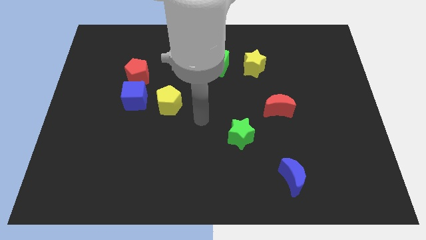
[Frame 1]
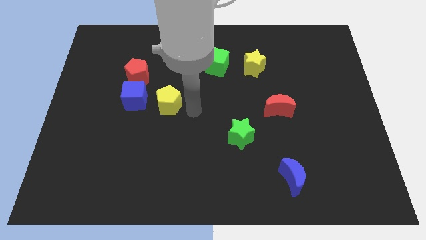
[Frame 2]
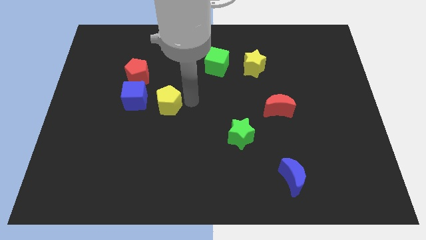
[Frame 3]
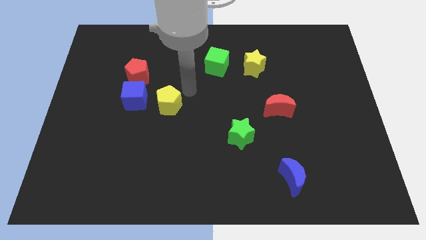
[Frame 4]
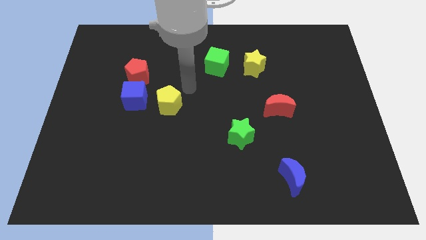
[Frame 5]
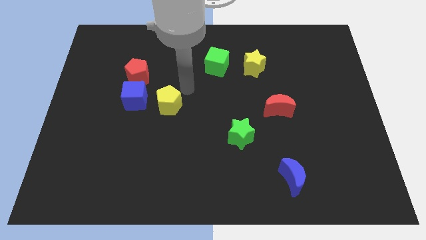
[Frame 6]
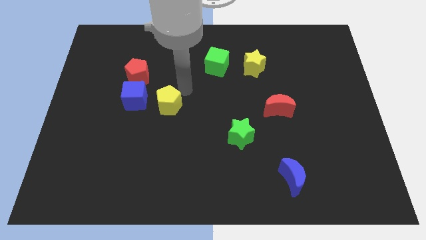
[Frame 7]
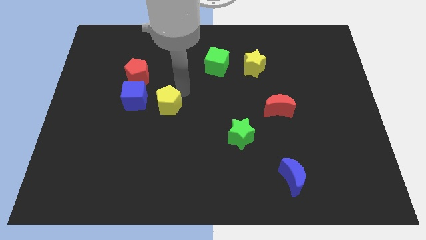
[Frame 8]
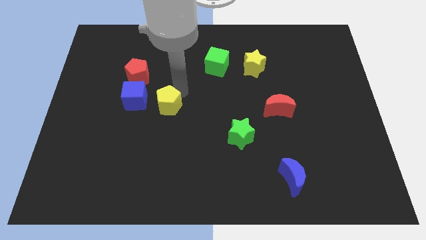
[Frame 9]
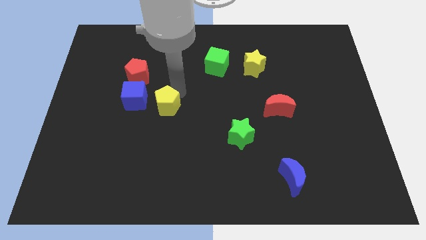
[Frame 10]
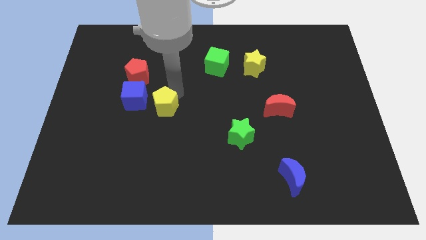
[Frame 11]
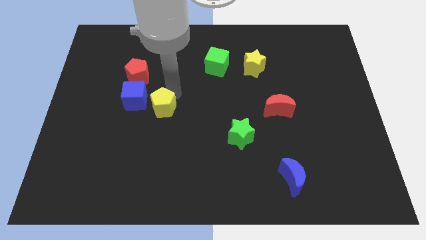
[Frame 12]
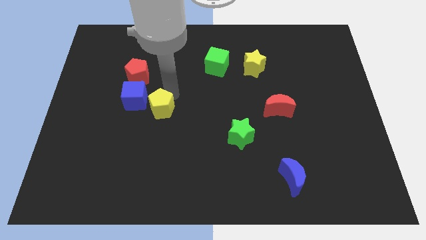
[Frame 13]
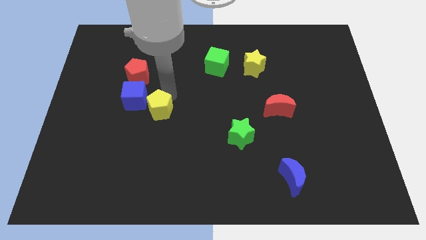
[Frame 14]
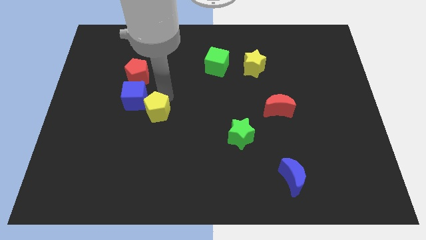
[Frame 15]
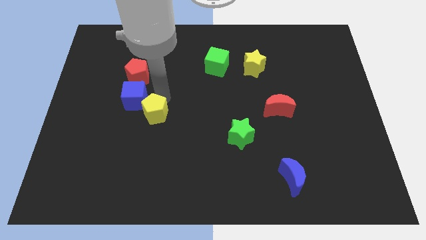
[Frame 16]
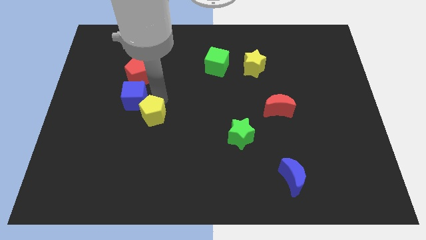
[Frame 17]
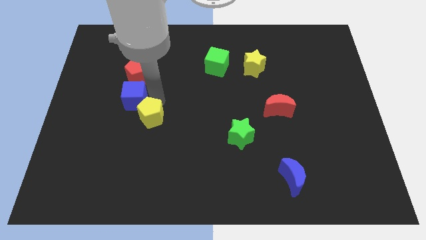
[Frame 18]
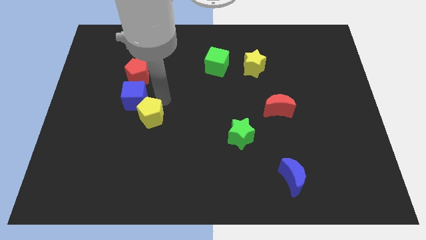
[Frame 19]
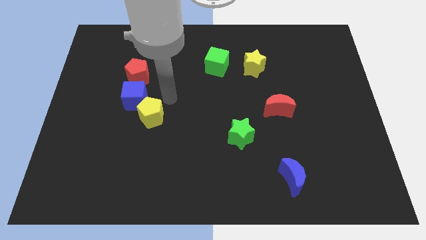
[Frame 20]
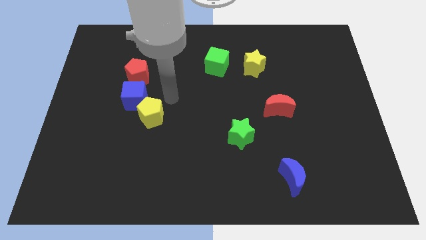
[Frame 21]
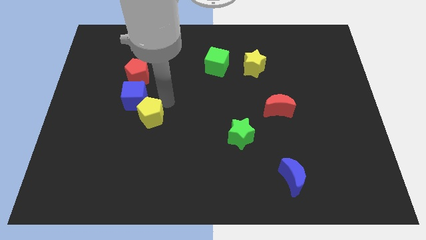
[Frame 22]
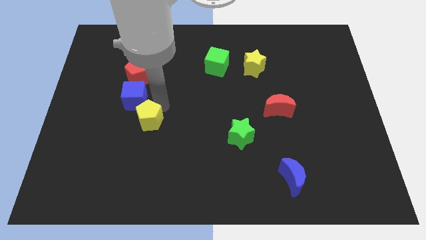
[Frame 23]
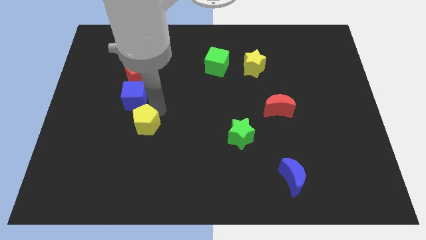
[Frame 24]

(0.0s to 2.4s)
slide the yellow pentagon downwards and then to the left somewhat

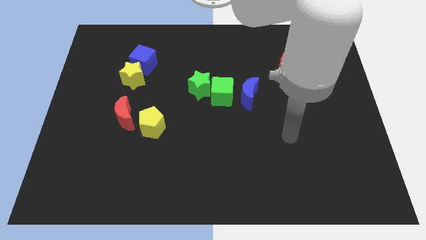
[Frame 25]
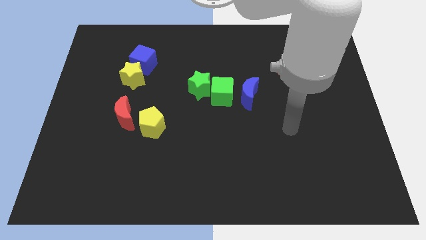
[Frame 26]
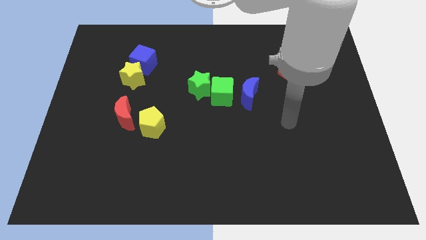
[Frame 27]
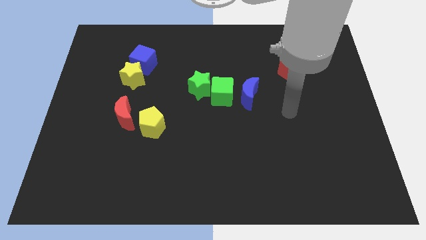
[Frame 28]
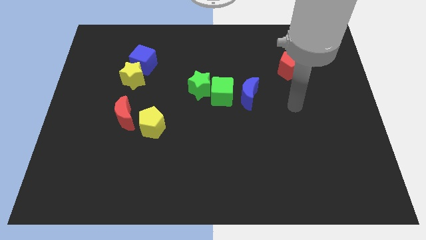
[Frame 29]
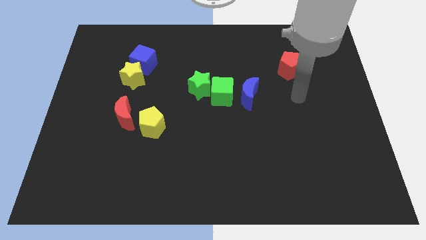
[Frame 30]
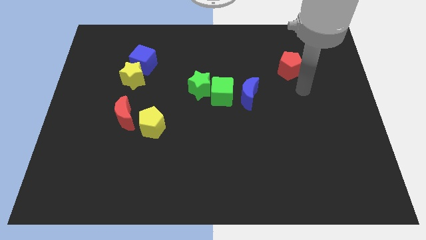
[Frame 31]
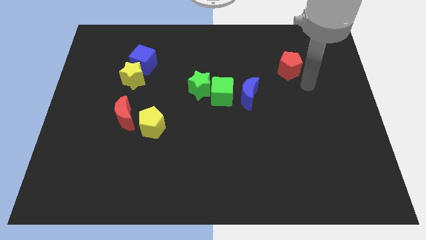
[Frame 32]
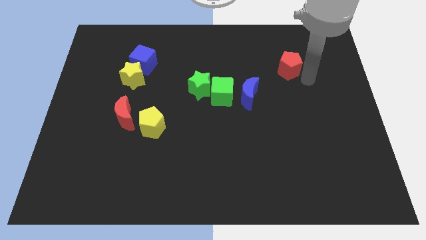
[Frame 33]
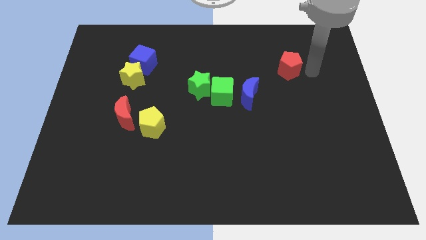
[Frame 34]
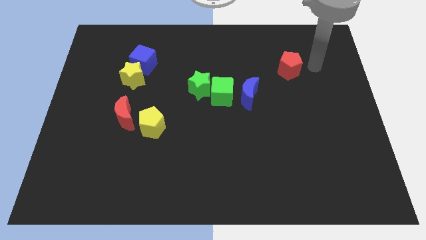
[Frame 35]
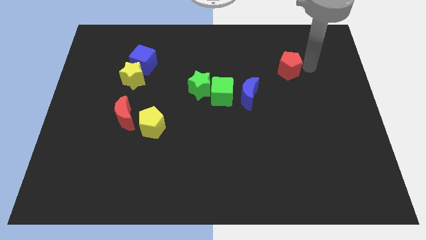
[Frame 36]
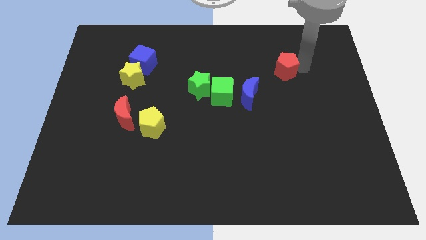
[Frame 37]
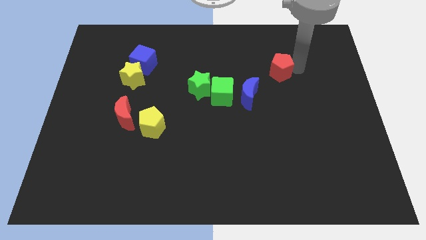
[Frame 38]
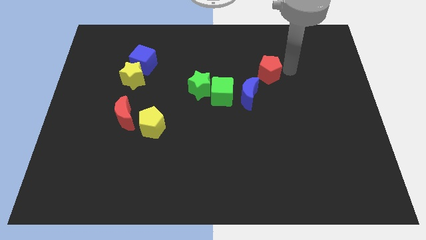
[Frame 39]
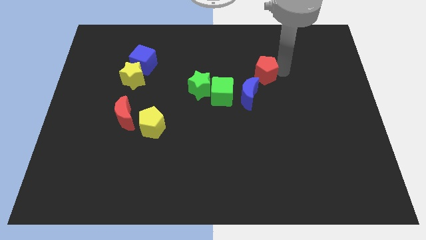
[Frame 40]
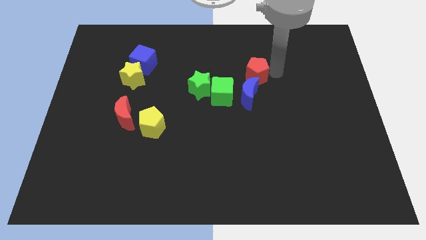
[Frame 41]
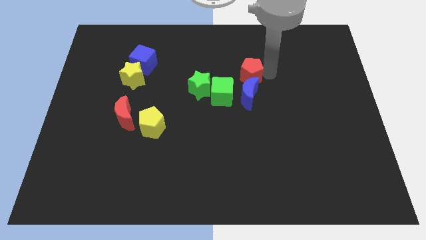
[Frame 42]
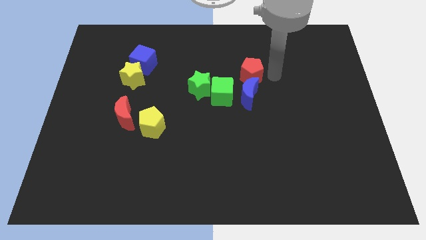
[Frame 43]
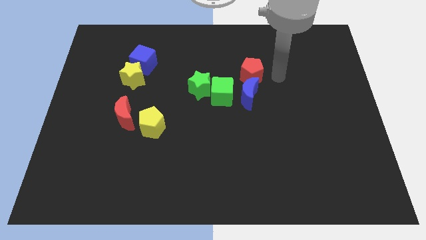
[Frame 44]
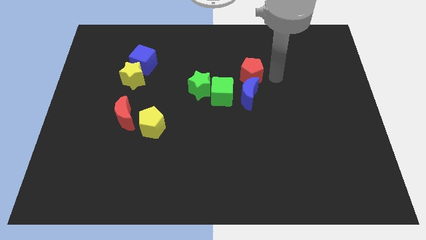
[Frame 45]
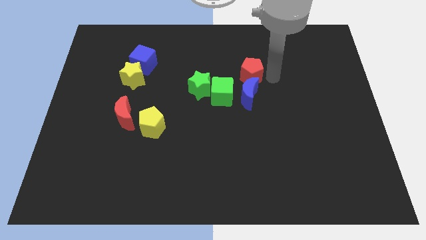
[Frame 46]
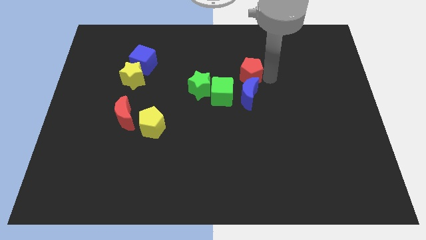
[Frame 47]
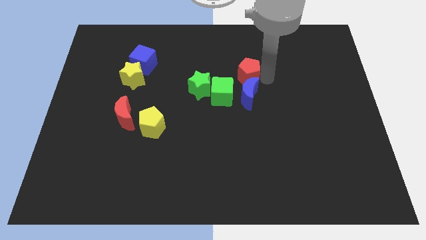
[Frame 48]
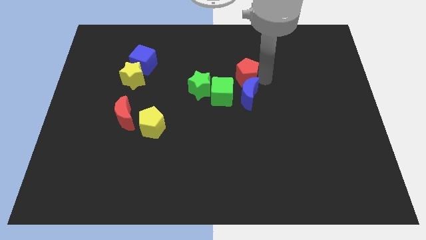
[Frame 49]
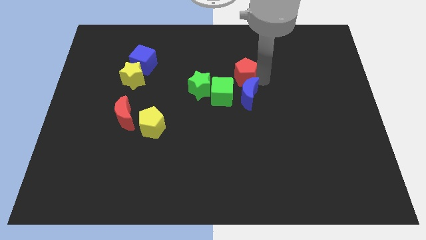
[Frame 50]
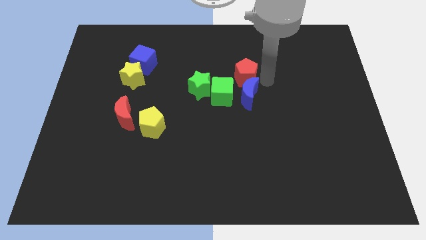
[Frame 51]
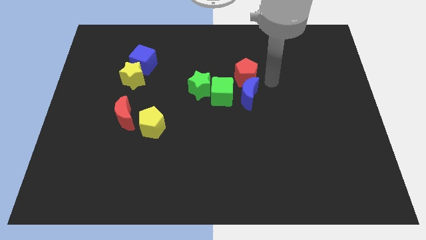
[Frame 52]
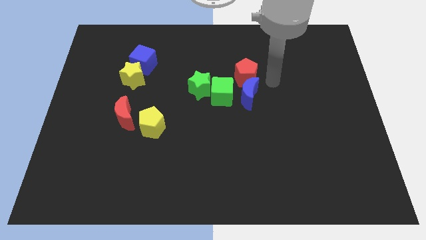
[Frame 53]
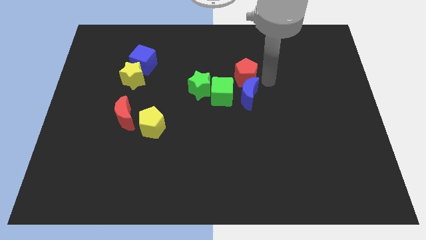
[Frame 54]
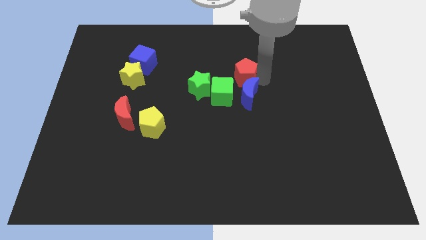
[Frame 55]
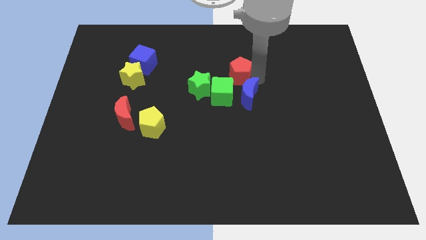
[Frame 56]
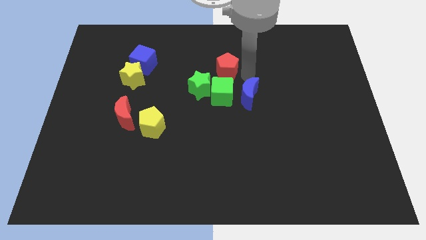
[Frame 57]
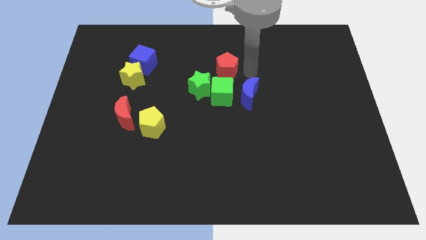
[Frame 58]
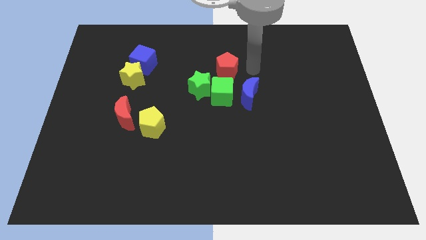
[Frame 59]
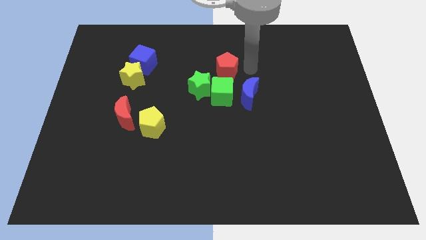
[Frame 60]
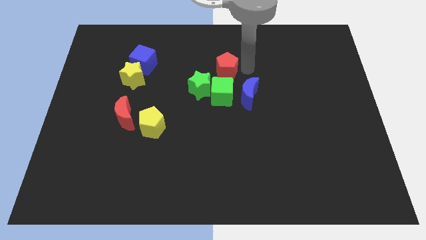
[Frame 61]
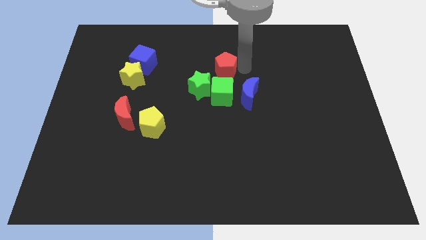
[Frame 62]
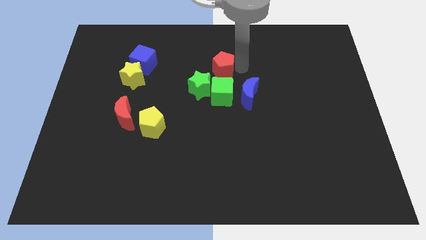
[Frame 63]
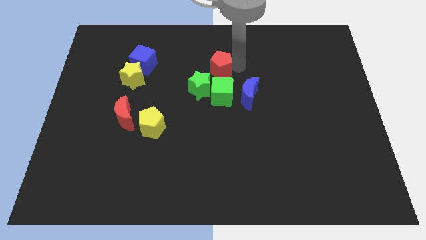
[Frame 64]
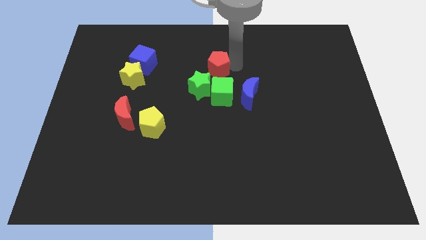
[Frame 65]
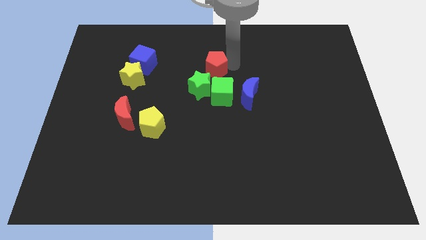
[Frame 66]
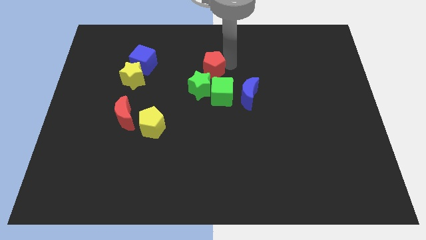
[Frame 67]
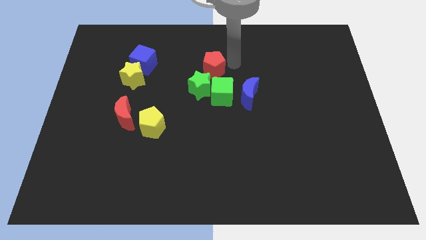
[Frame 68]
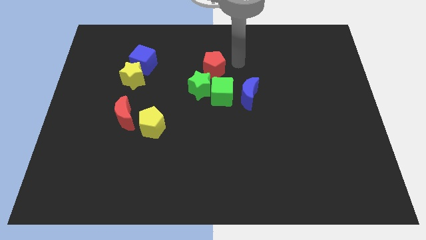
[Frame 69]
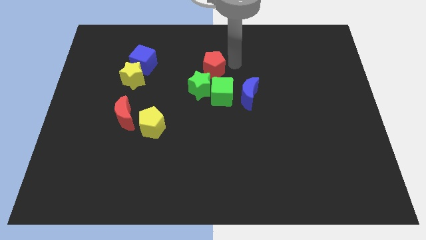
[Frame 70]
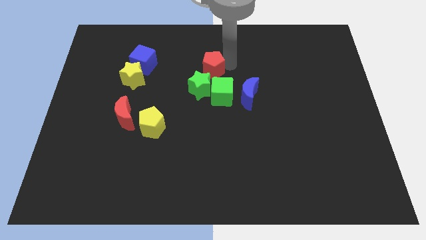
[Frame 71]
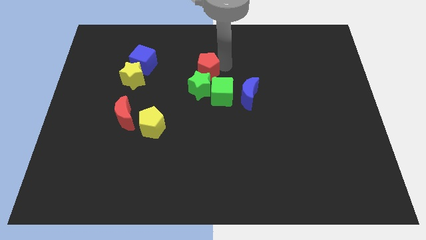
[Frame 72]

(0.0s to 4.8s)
slide the red pentagon to the left

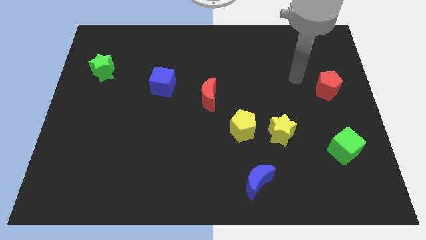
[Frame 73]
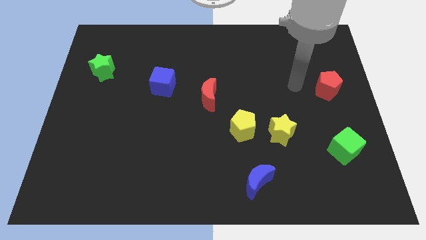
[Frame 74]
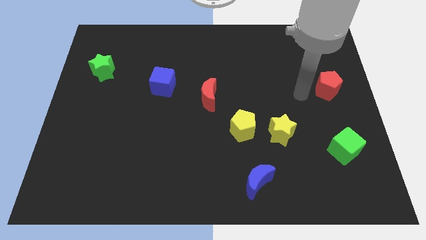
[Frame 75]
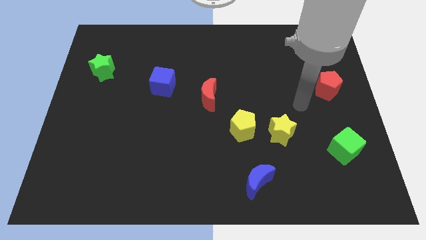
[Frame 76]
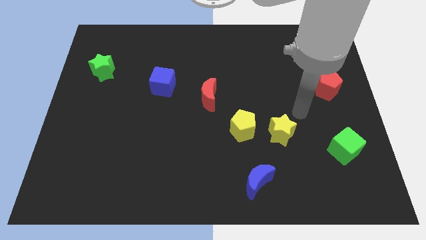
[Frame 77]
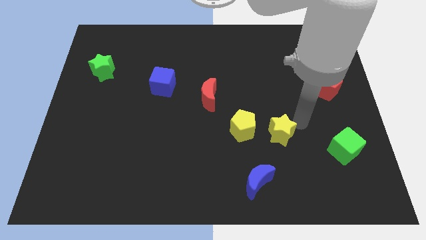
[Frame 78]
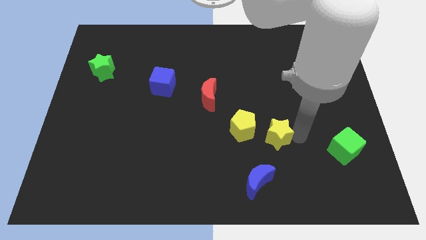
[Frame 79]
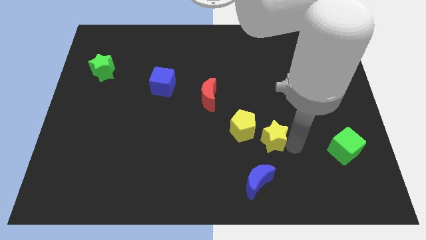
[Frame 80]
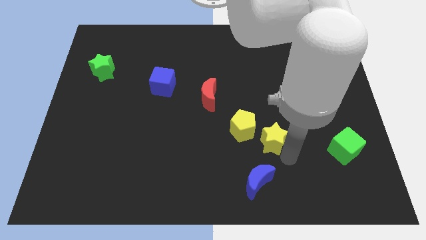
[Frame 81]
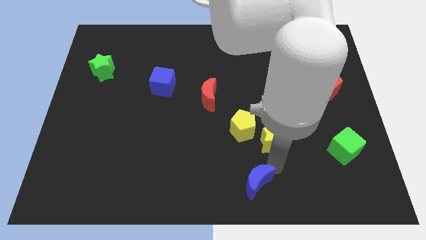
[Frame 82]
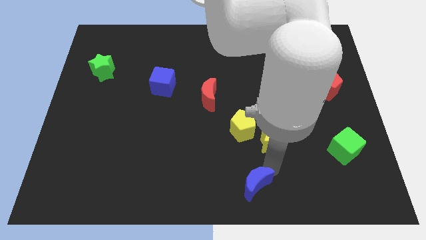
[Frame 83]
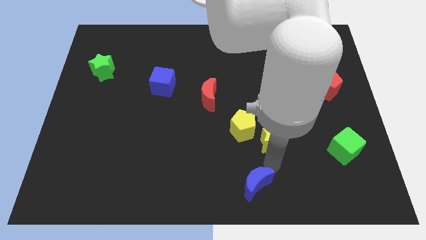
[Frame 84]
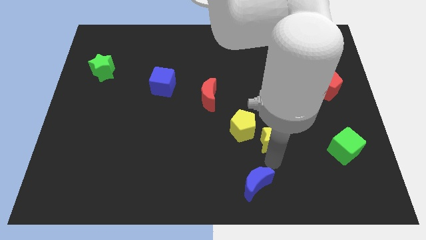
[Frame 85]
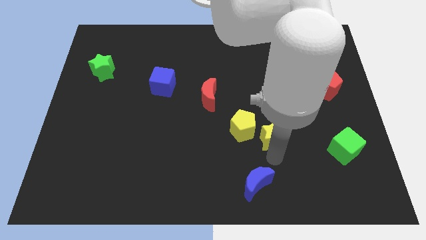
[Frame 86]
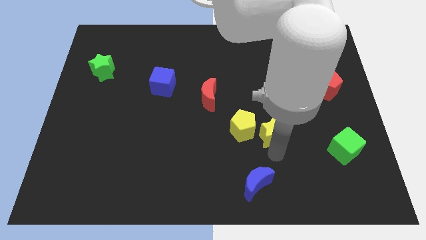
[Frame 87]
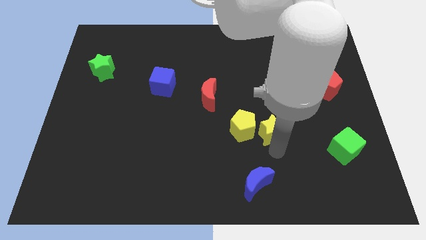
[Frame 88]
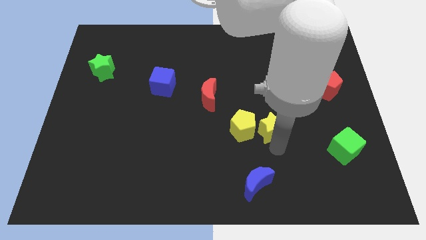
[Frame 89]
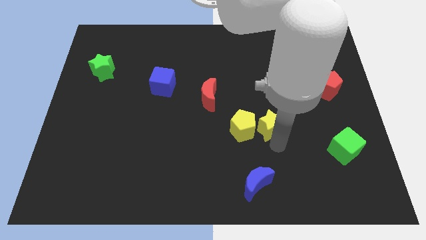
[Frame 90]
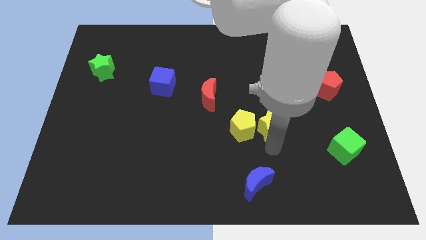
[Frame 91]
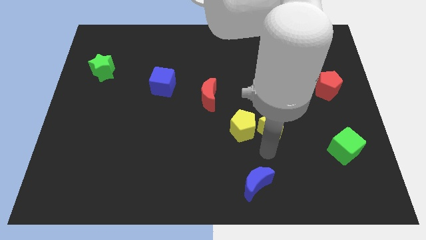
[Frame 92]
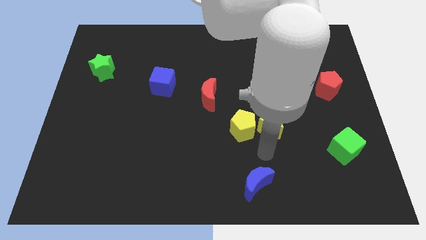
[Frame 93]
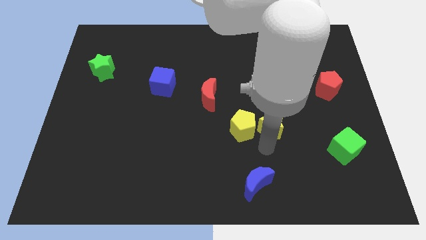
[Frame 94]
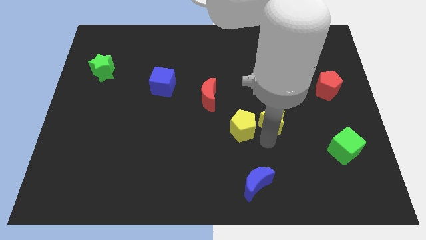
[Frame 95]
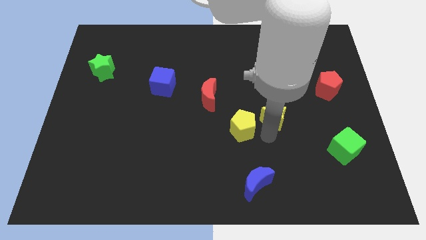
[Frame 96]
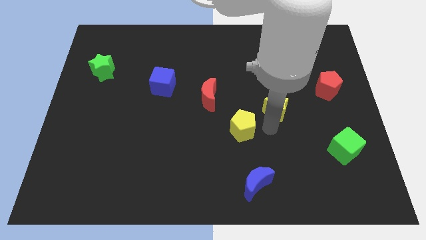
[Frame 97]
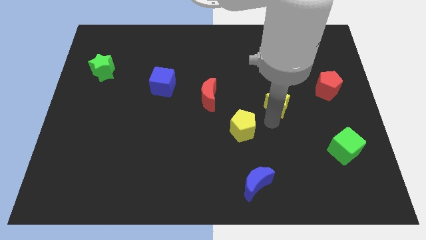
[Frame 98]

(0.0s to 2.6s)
slide the yellow star a little bit up
